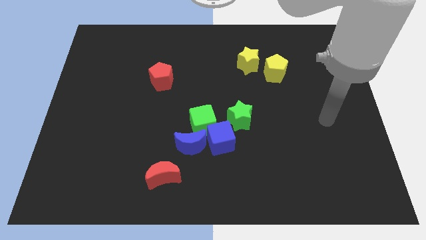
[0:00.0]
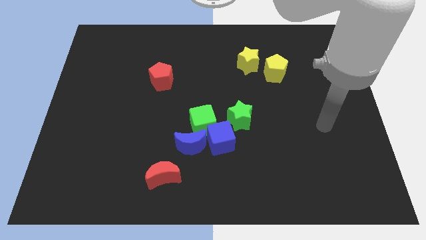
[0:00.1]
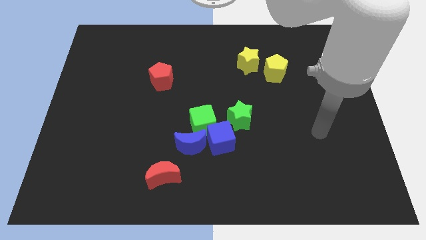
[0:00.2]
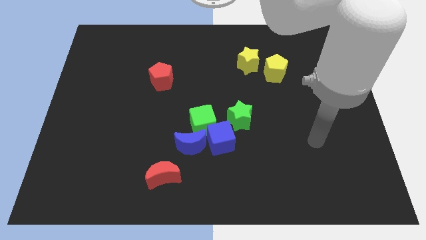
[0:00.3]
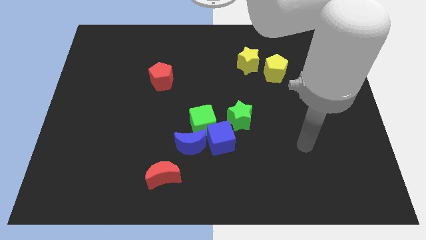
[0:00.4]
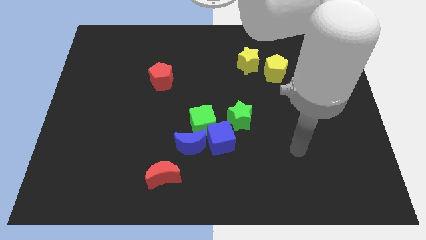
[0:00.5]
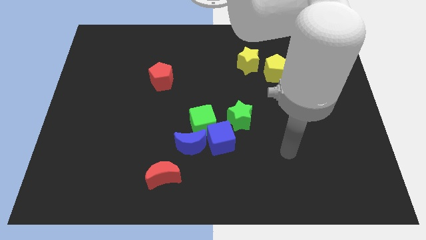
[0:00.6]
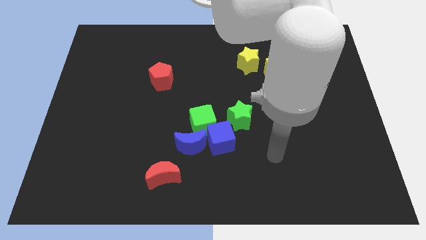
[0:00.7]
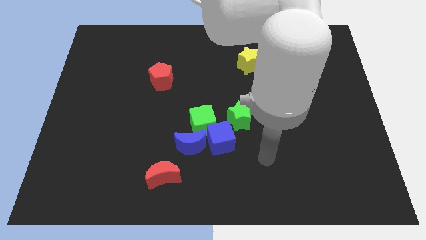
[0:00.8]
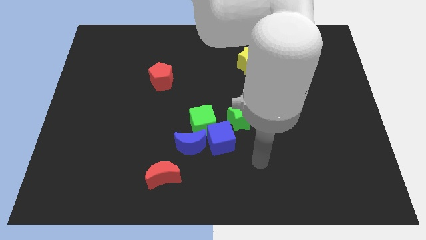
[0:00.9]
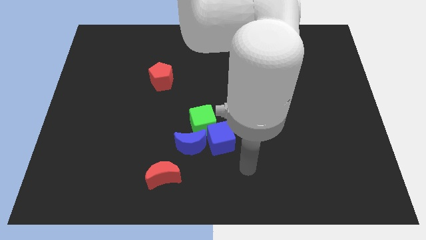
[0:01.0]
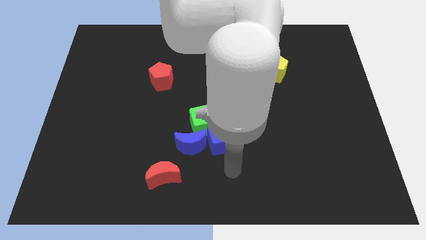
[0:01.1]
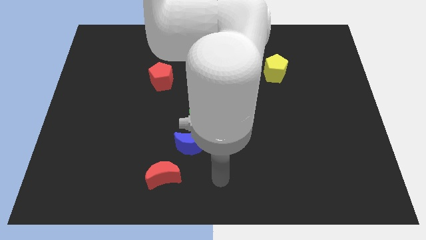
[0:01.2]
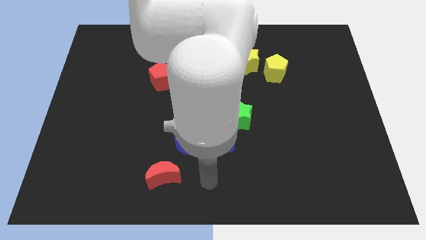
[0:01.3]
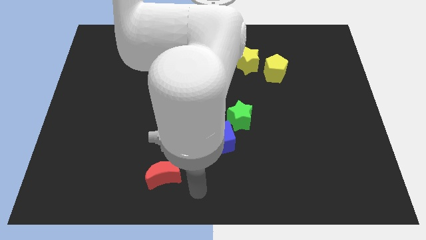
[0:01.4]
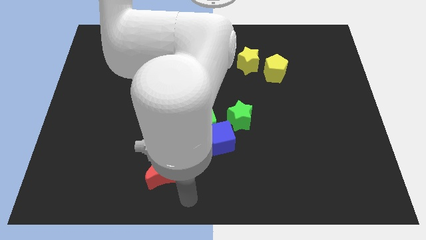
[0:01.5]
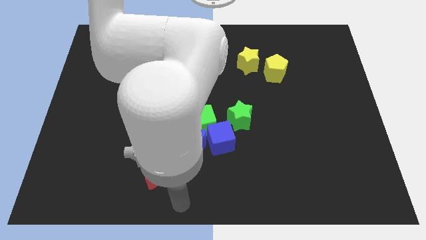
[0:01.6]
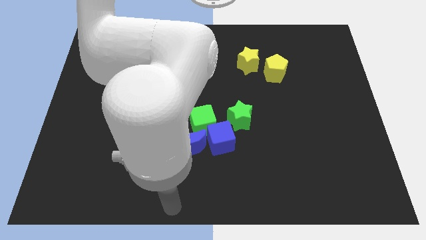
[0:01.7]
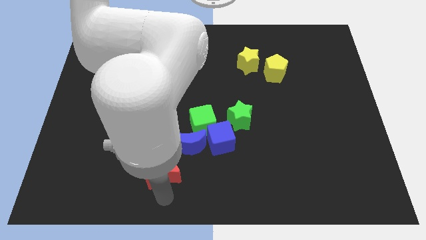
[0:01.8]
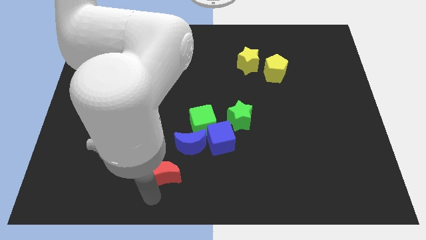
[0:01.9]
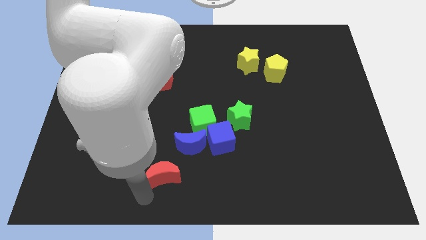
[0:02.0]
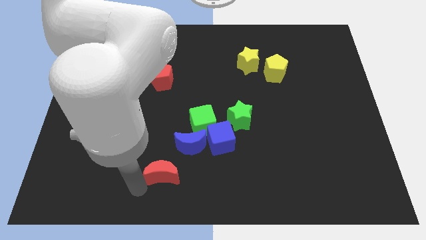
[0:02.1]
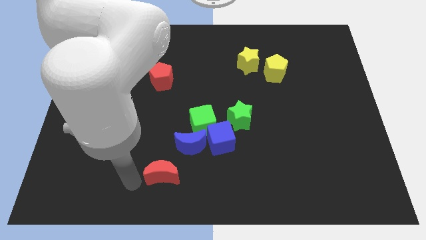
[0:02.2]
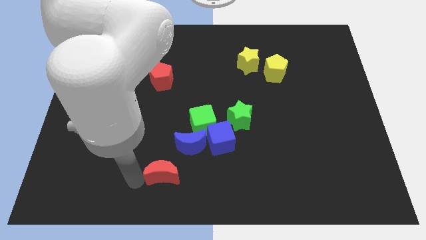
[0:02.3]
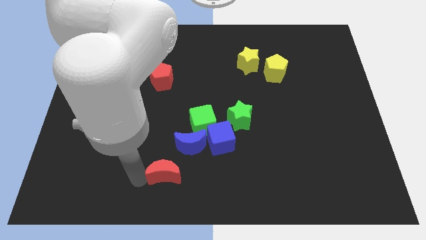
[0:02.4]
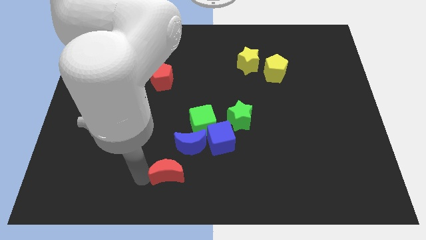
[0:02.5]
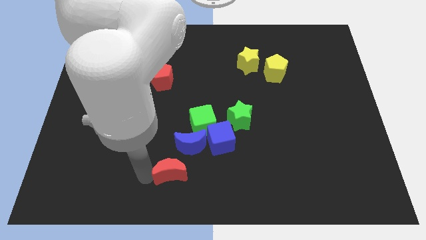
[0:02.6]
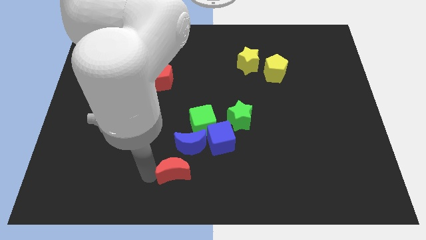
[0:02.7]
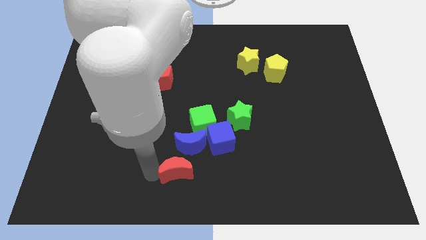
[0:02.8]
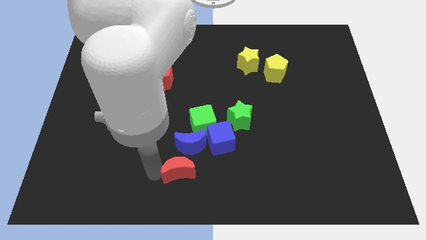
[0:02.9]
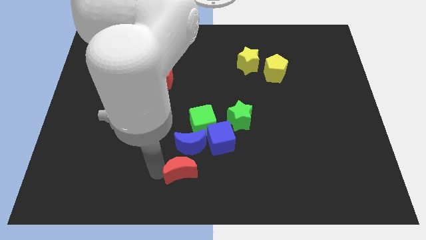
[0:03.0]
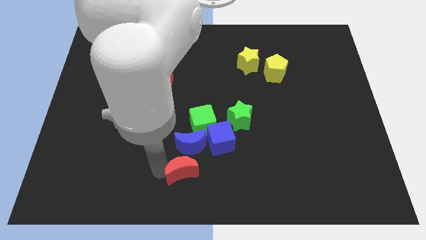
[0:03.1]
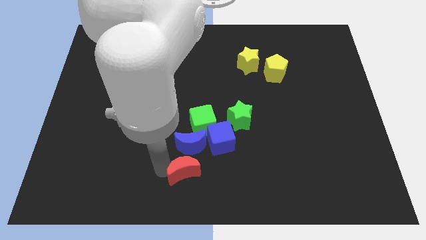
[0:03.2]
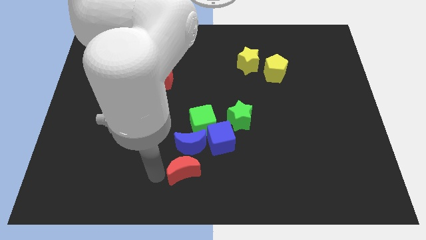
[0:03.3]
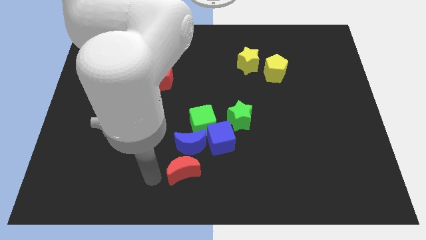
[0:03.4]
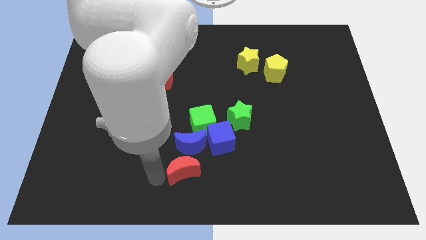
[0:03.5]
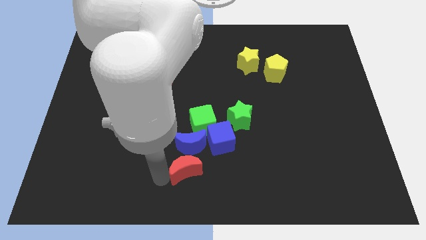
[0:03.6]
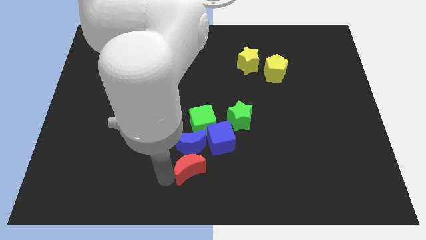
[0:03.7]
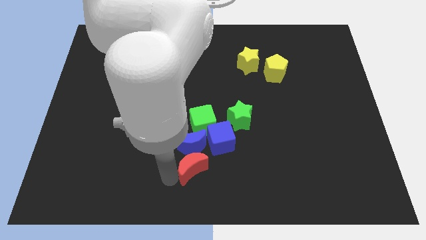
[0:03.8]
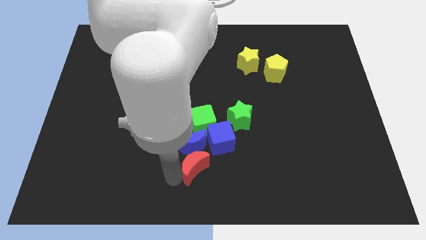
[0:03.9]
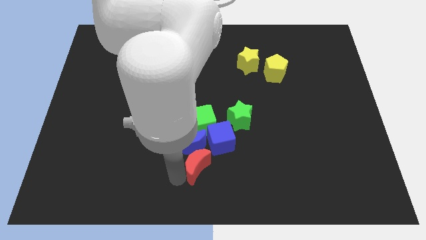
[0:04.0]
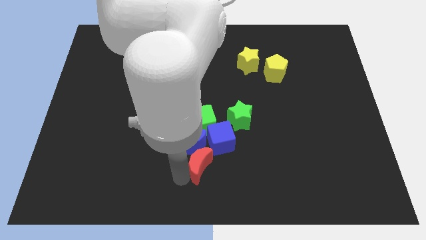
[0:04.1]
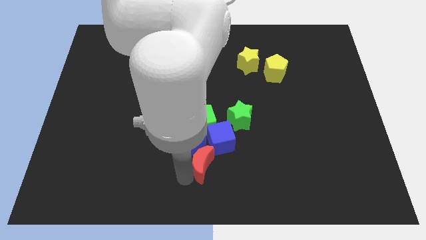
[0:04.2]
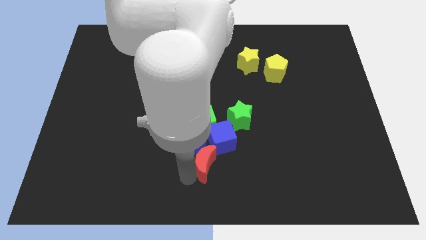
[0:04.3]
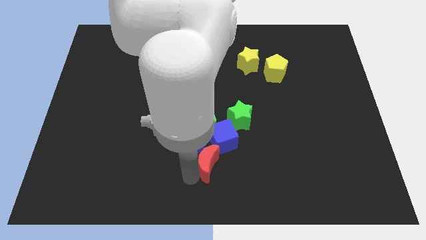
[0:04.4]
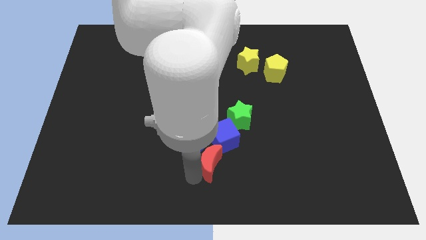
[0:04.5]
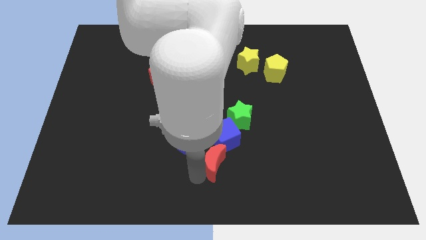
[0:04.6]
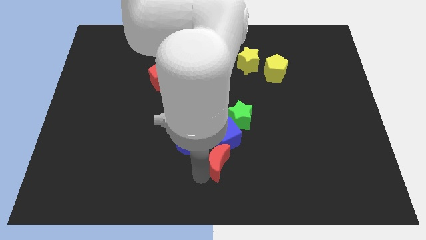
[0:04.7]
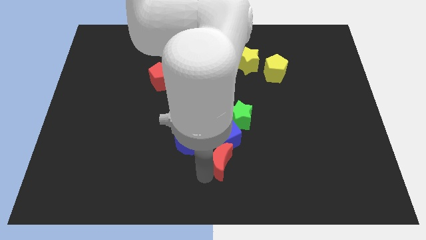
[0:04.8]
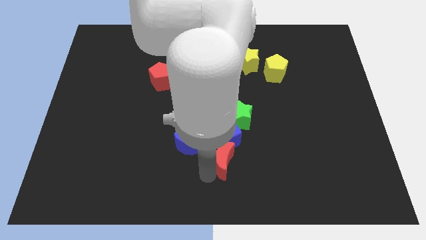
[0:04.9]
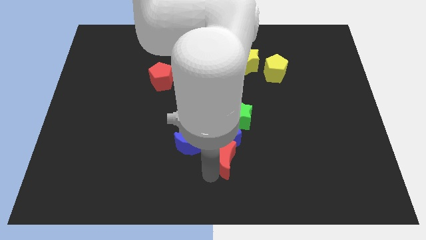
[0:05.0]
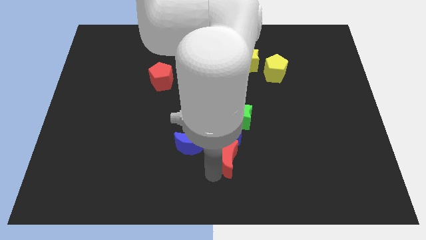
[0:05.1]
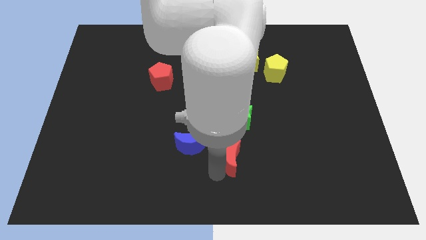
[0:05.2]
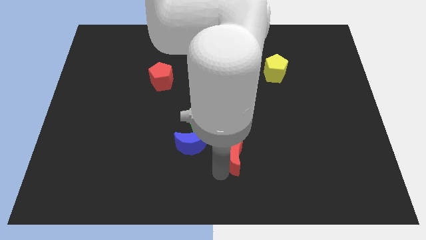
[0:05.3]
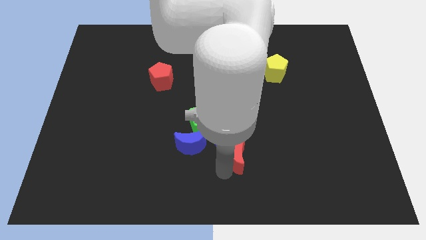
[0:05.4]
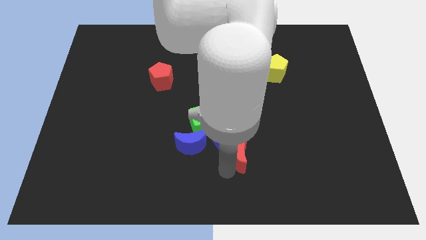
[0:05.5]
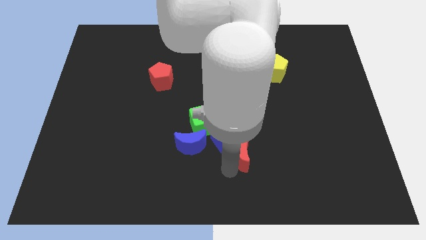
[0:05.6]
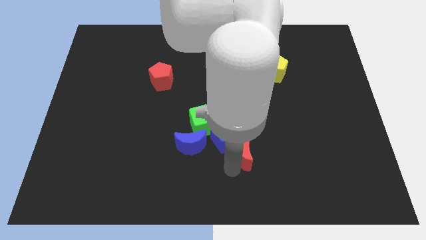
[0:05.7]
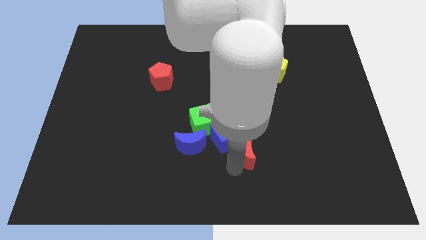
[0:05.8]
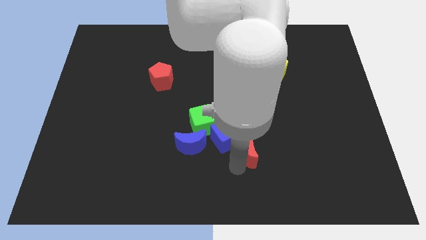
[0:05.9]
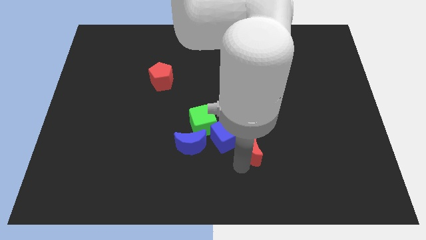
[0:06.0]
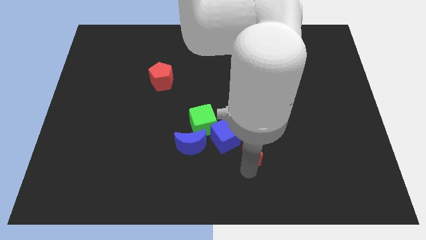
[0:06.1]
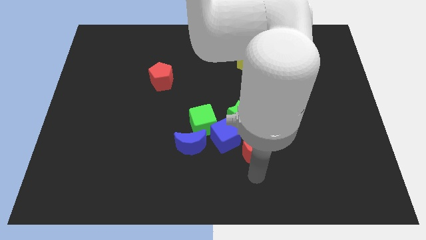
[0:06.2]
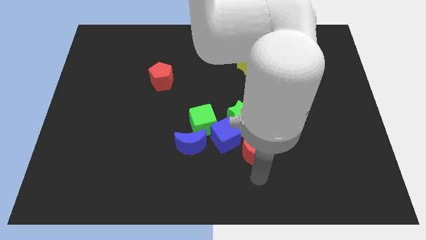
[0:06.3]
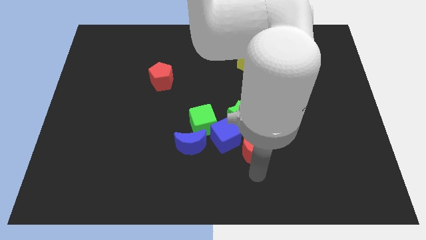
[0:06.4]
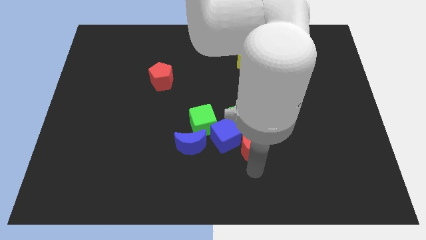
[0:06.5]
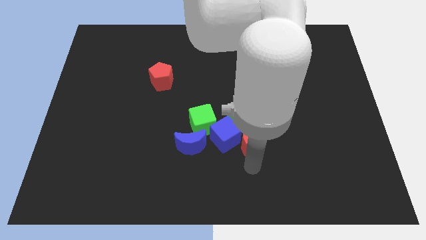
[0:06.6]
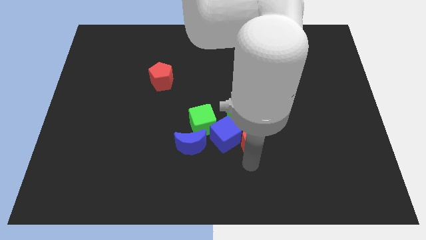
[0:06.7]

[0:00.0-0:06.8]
slide the red moon close to the green star

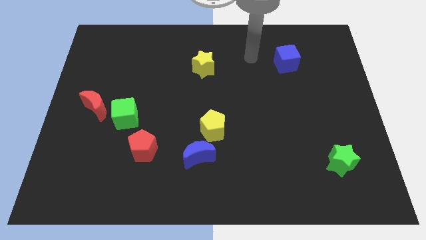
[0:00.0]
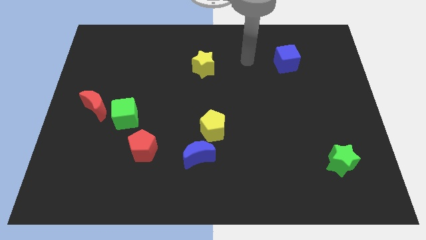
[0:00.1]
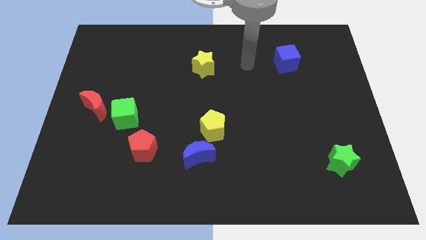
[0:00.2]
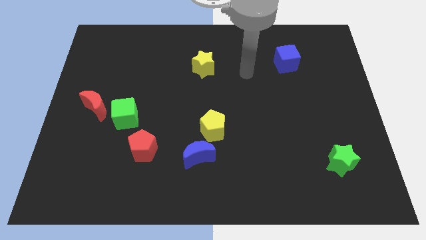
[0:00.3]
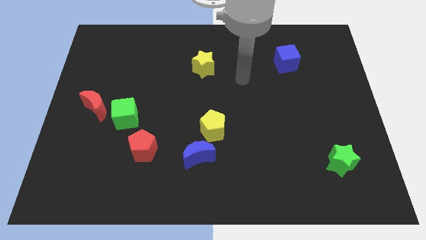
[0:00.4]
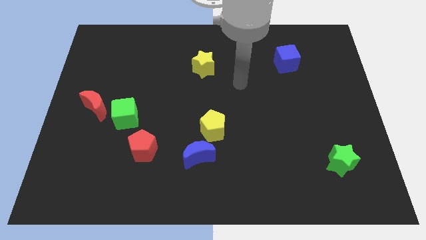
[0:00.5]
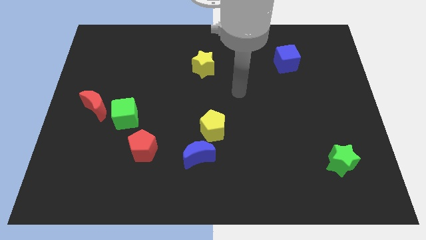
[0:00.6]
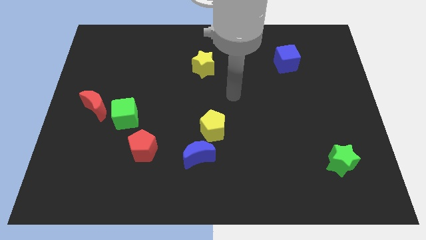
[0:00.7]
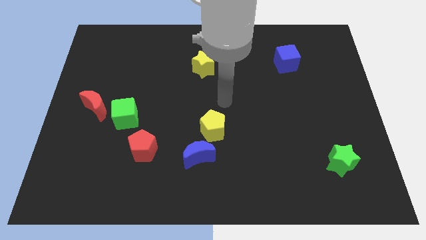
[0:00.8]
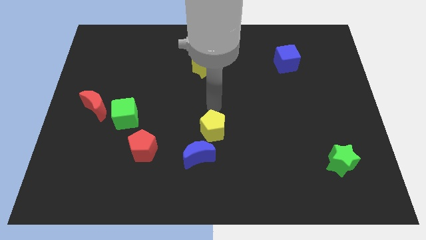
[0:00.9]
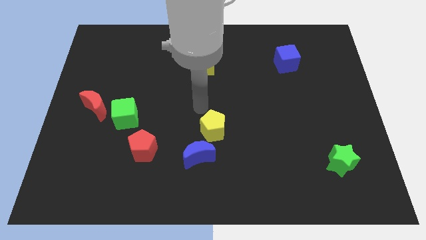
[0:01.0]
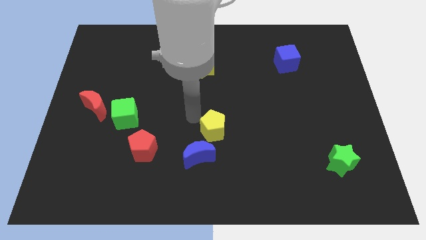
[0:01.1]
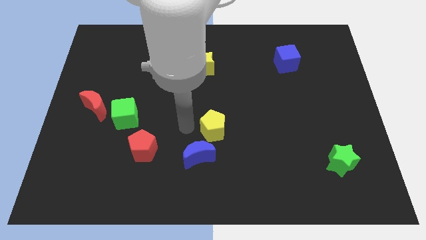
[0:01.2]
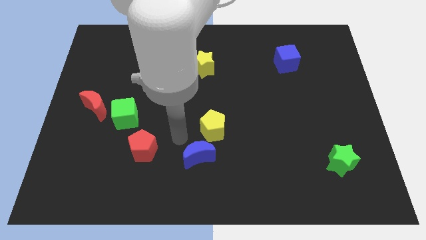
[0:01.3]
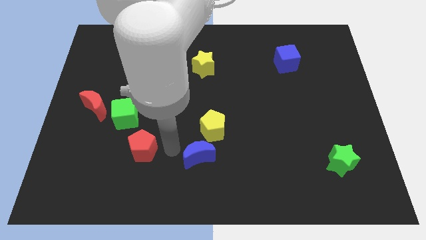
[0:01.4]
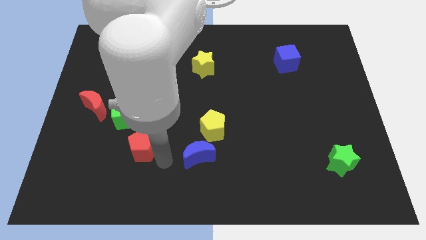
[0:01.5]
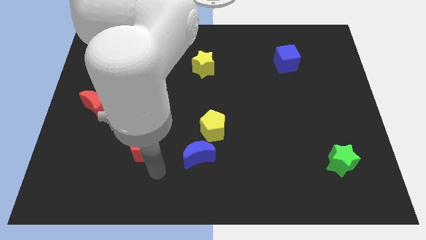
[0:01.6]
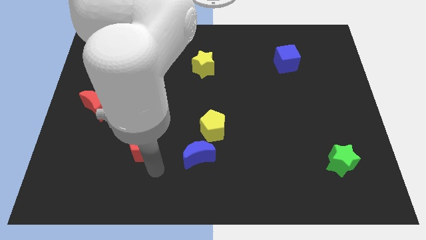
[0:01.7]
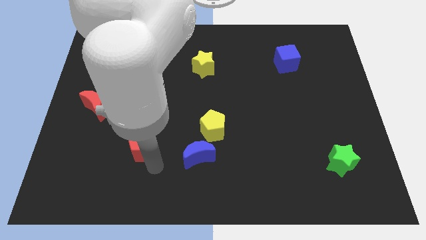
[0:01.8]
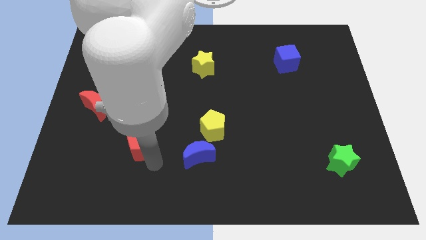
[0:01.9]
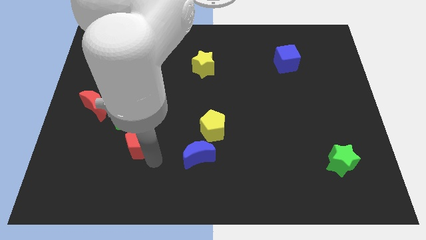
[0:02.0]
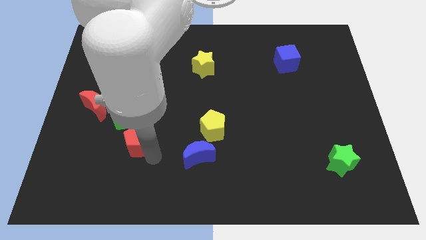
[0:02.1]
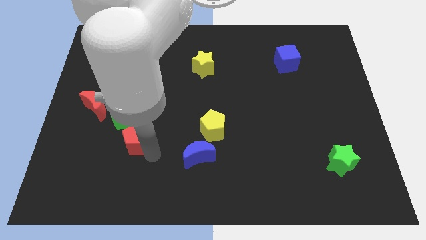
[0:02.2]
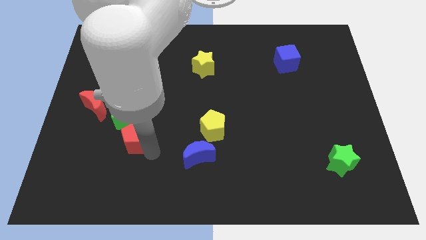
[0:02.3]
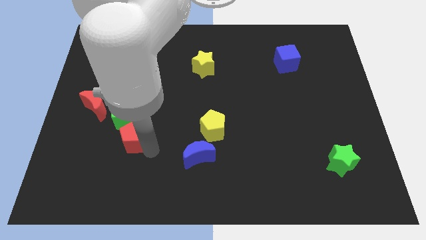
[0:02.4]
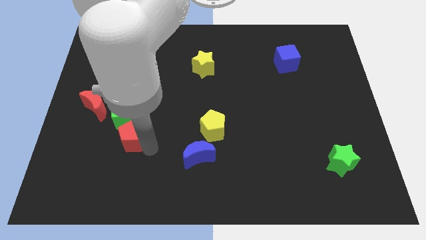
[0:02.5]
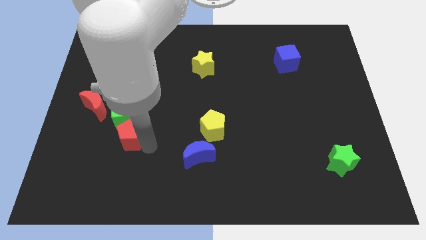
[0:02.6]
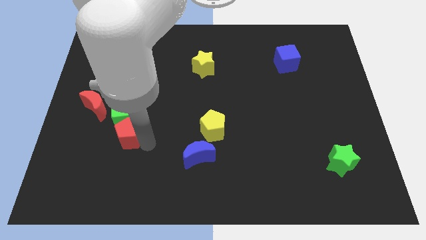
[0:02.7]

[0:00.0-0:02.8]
put the red pentagon towards the green cube
